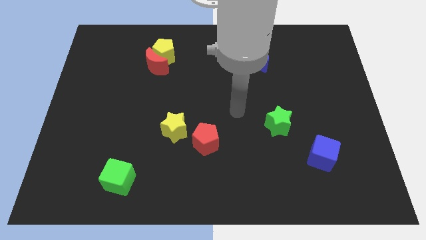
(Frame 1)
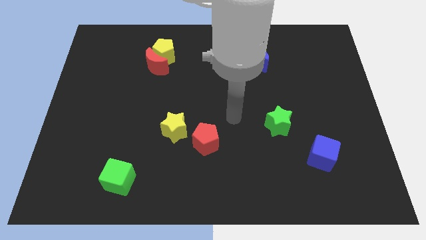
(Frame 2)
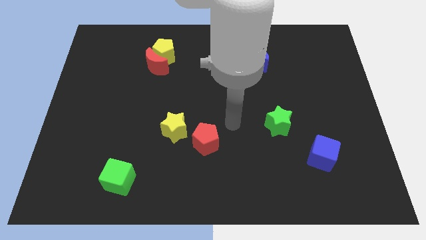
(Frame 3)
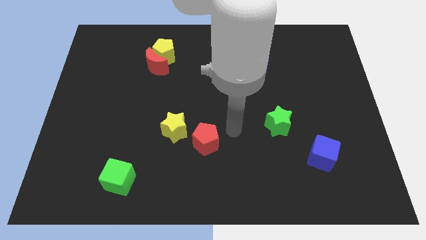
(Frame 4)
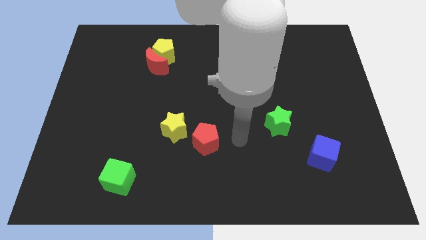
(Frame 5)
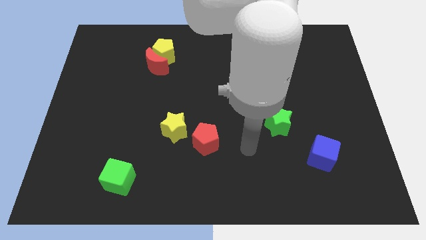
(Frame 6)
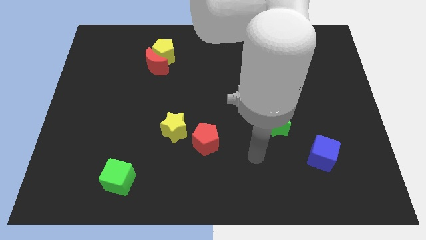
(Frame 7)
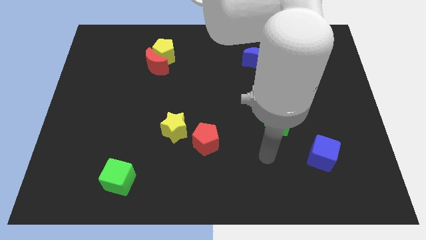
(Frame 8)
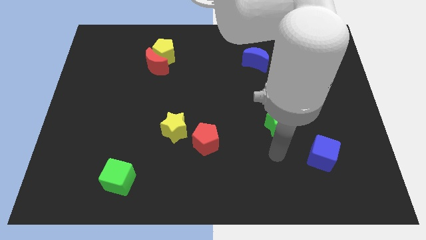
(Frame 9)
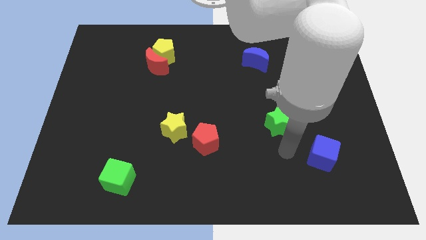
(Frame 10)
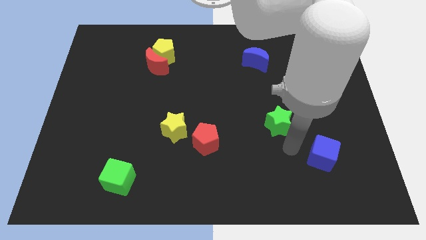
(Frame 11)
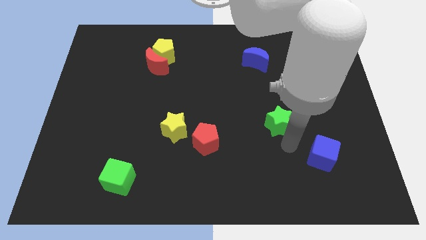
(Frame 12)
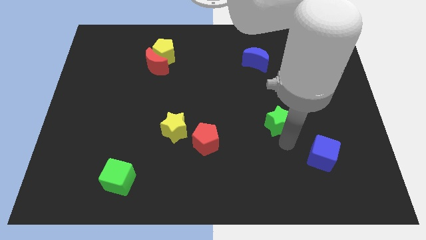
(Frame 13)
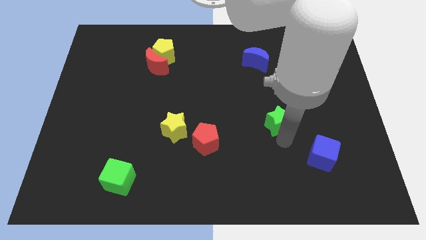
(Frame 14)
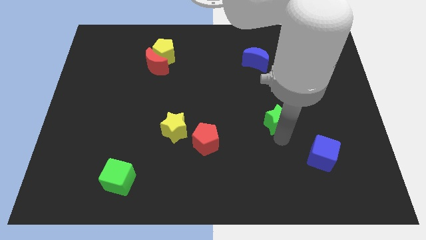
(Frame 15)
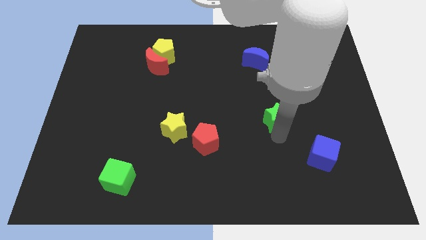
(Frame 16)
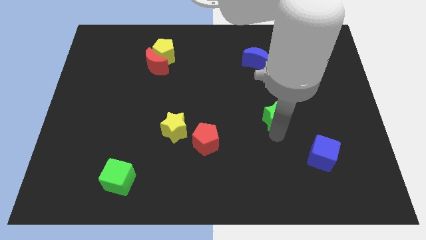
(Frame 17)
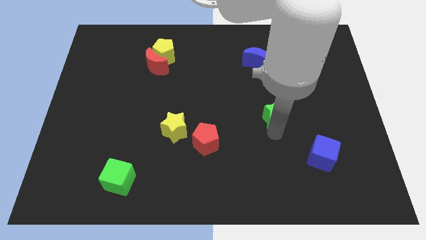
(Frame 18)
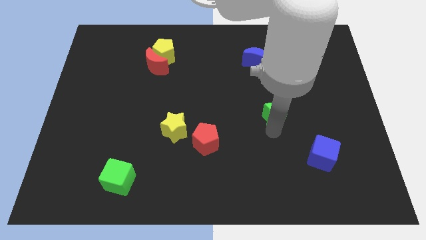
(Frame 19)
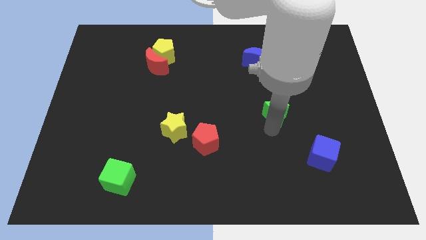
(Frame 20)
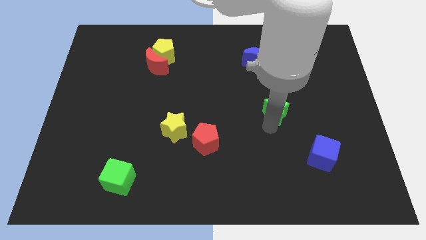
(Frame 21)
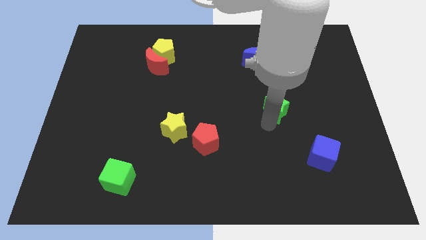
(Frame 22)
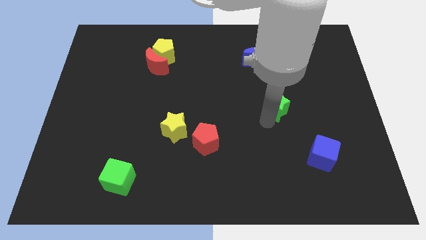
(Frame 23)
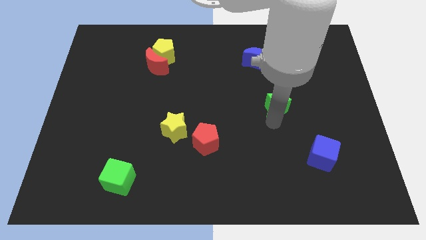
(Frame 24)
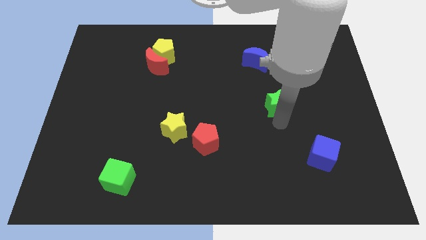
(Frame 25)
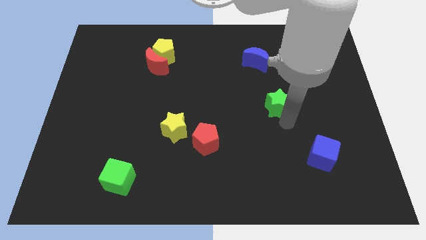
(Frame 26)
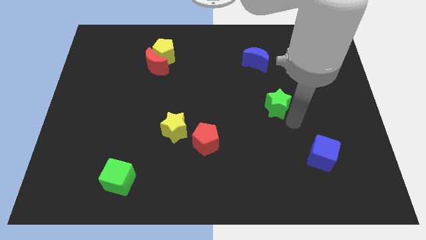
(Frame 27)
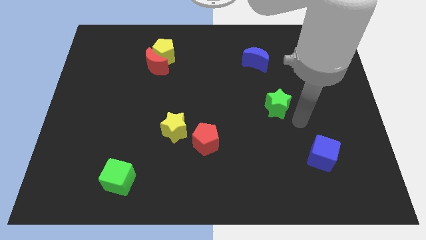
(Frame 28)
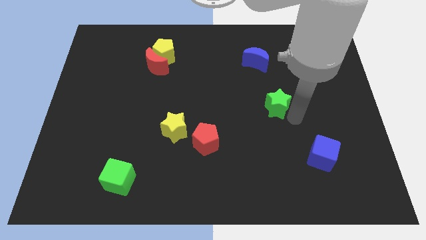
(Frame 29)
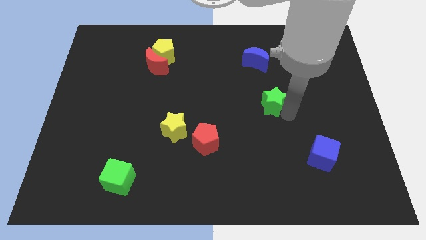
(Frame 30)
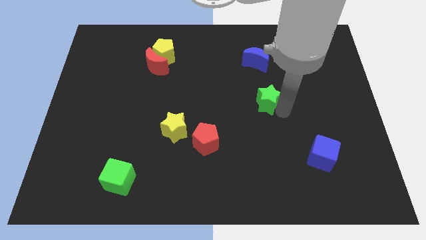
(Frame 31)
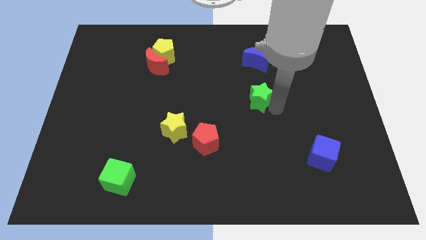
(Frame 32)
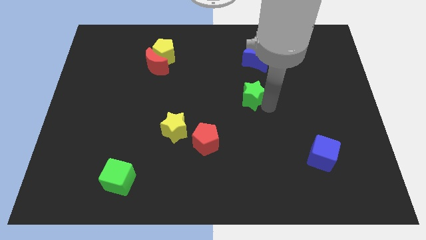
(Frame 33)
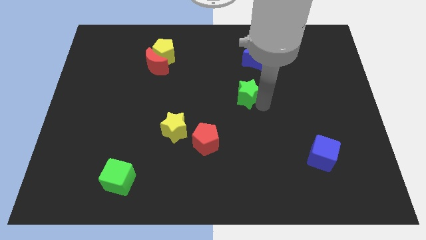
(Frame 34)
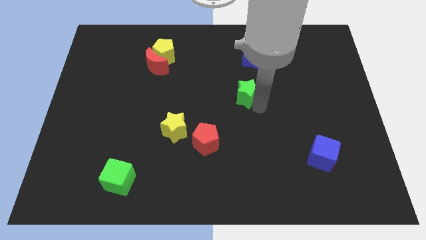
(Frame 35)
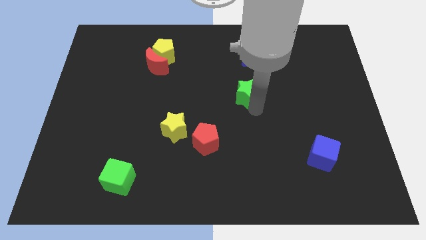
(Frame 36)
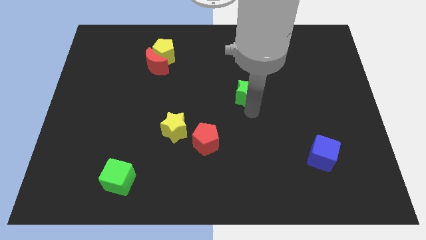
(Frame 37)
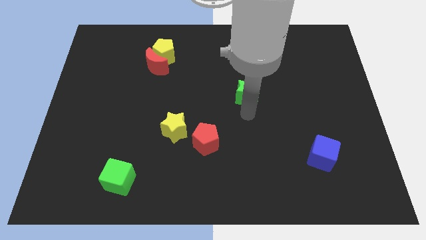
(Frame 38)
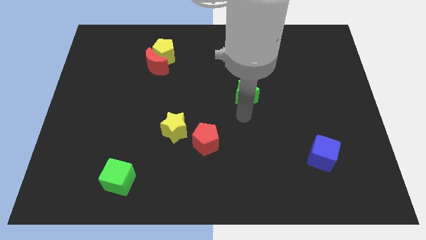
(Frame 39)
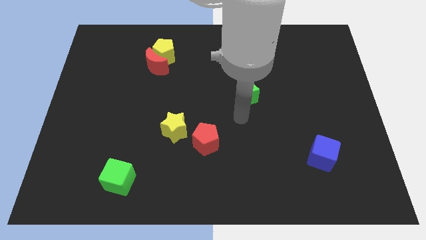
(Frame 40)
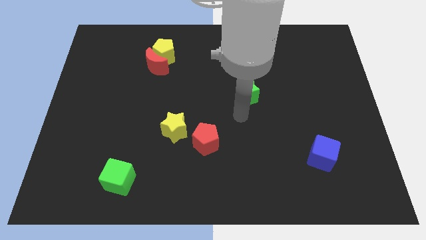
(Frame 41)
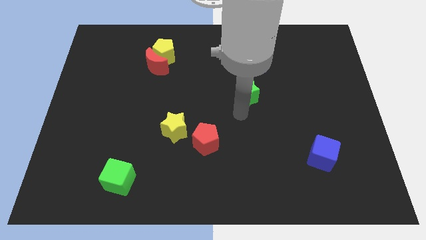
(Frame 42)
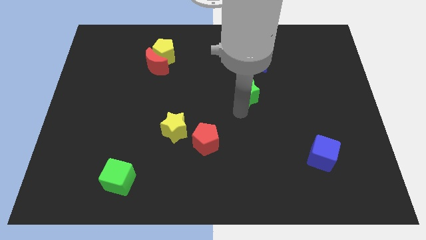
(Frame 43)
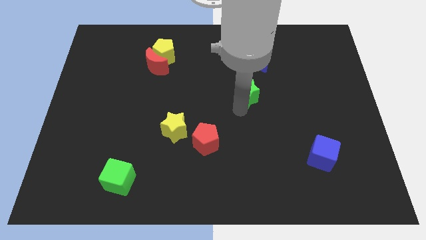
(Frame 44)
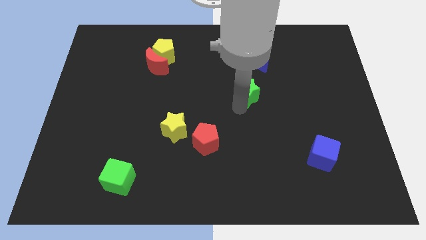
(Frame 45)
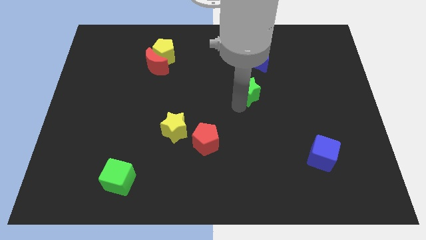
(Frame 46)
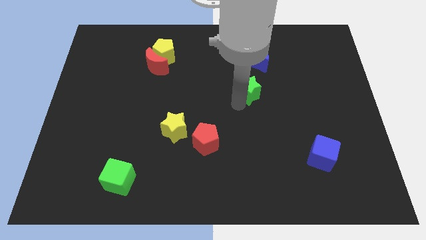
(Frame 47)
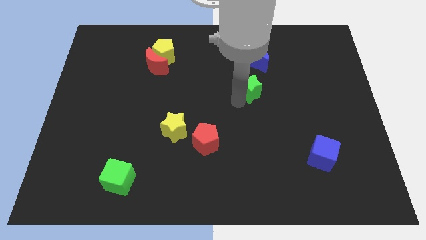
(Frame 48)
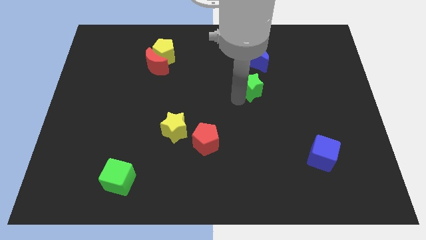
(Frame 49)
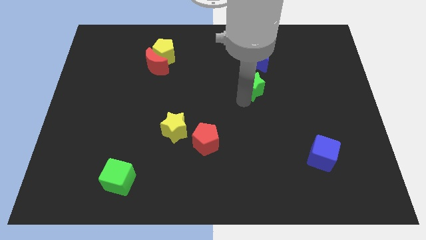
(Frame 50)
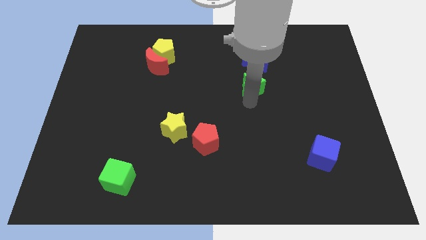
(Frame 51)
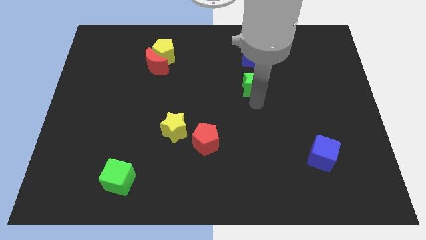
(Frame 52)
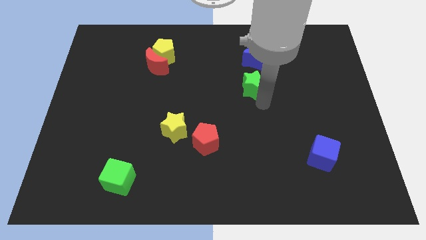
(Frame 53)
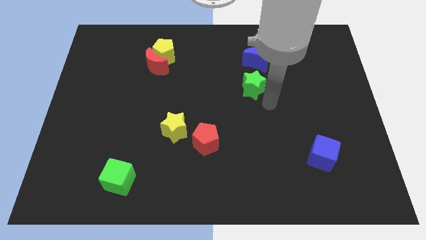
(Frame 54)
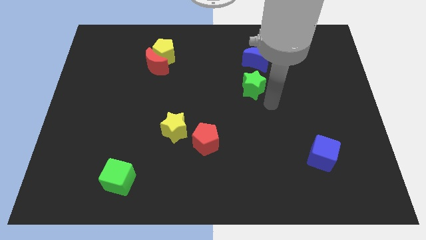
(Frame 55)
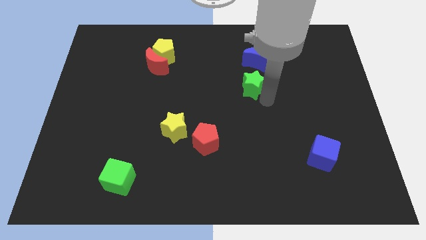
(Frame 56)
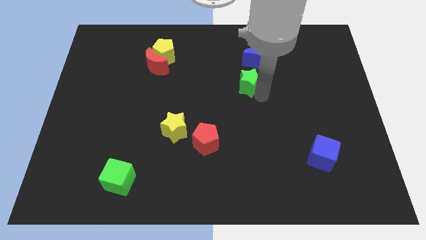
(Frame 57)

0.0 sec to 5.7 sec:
move the green star diagonally down and to the left of the blue moon

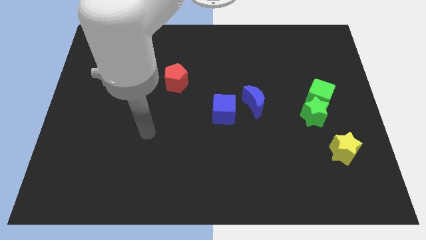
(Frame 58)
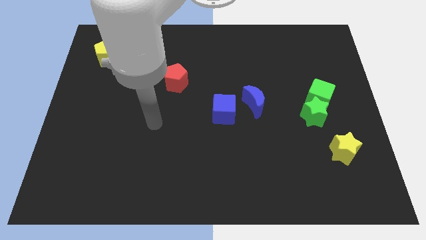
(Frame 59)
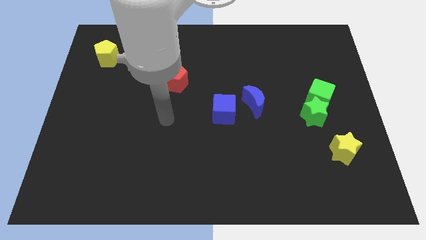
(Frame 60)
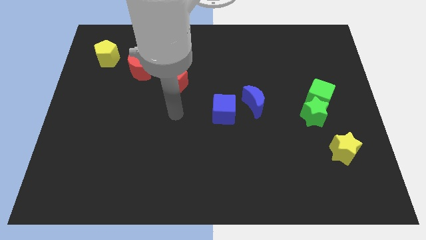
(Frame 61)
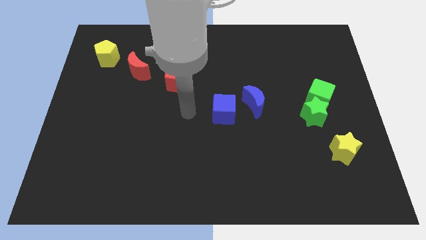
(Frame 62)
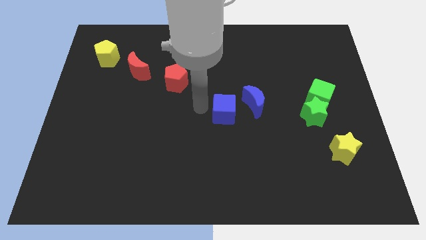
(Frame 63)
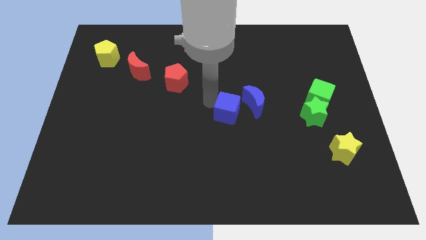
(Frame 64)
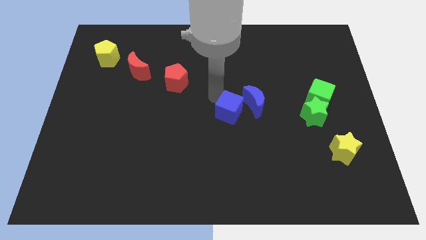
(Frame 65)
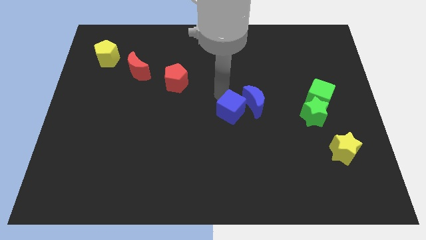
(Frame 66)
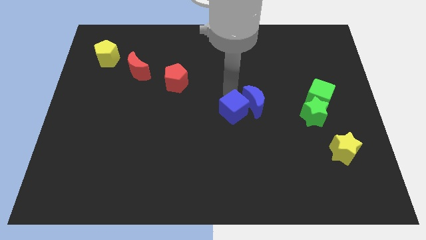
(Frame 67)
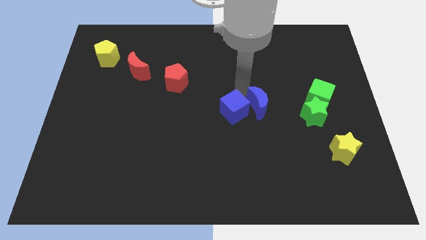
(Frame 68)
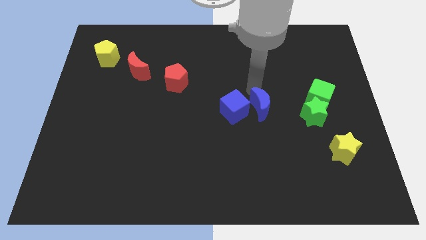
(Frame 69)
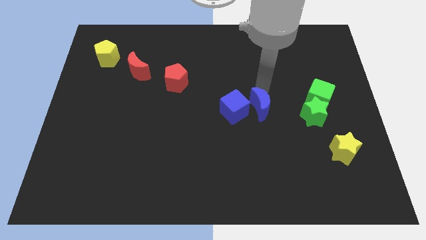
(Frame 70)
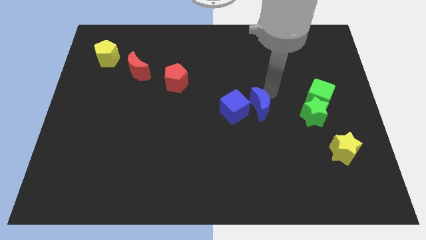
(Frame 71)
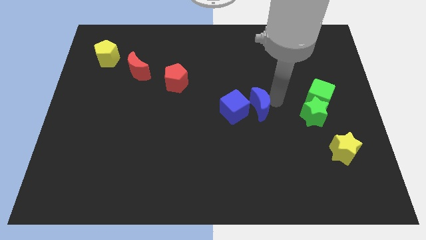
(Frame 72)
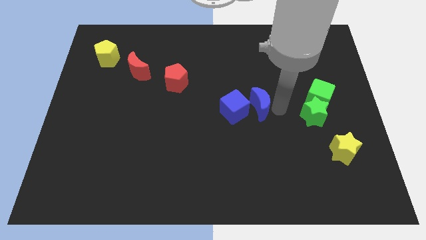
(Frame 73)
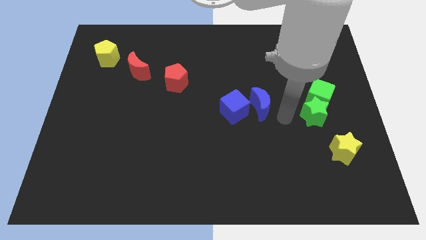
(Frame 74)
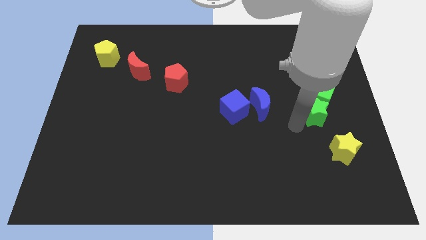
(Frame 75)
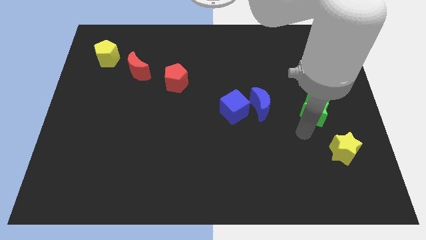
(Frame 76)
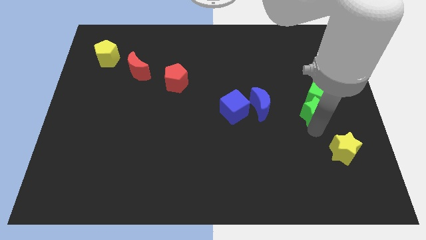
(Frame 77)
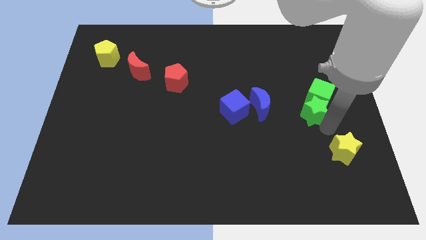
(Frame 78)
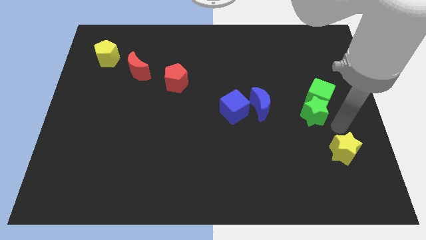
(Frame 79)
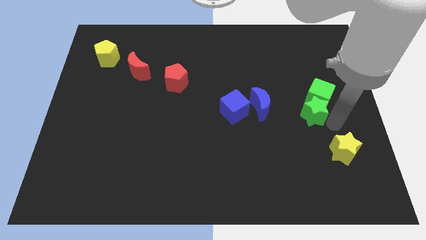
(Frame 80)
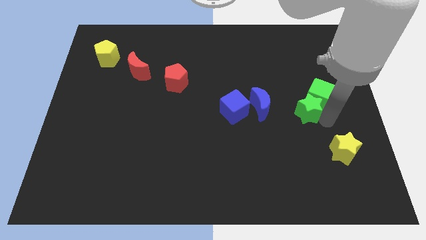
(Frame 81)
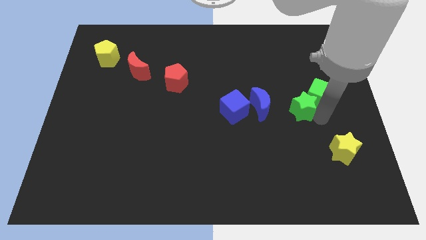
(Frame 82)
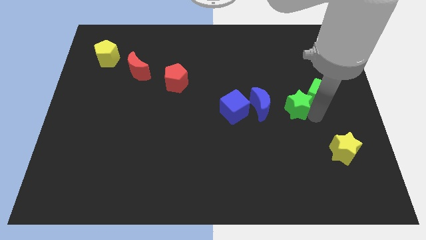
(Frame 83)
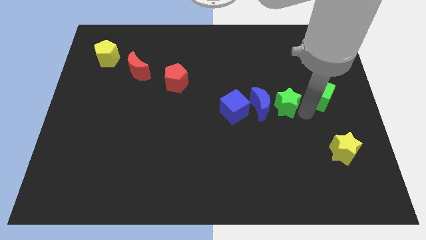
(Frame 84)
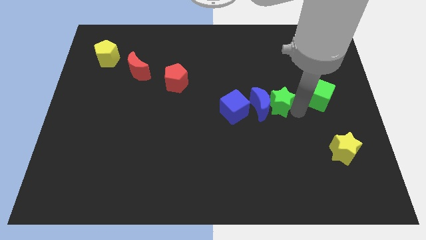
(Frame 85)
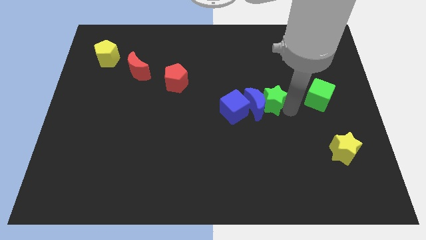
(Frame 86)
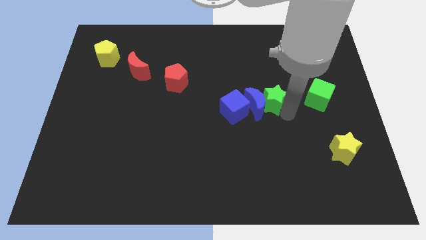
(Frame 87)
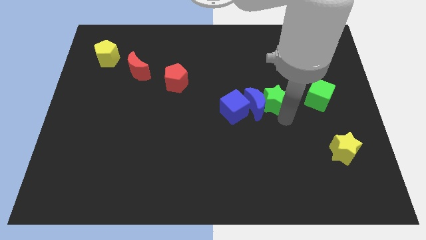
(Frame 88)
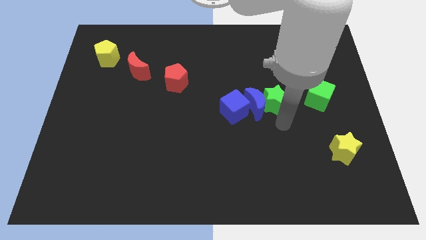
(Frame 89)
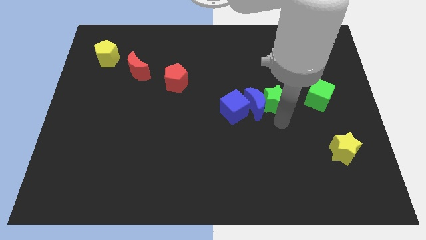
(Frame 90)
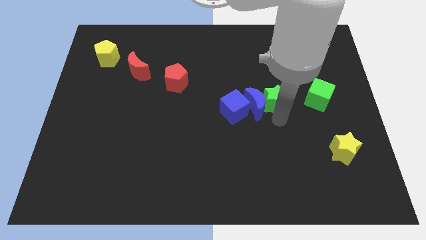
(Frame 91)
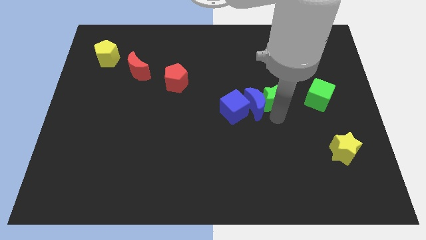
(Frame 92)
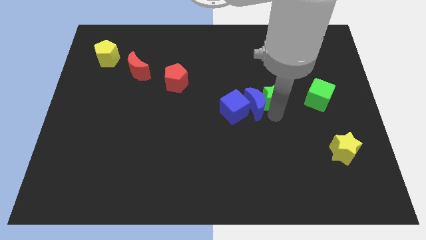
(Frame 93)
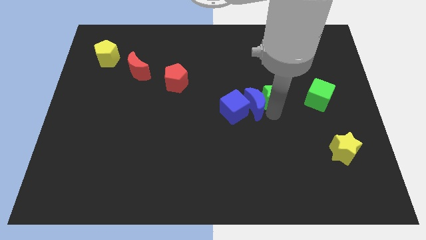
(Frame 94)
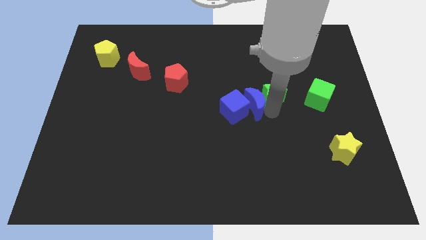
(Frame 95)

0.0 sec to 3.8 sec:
push the green star above the blue moon
